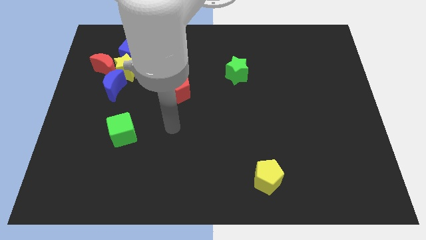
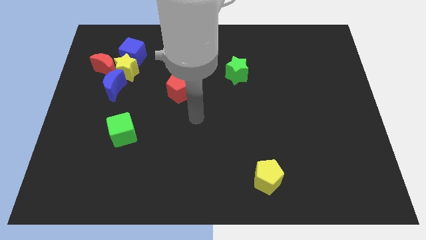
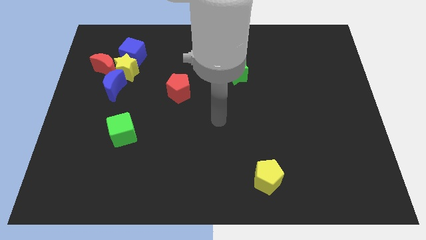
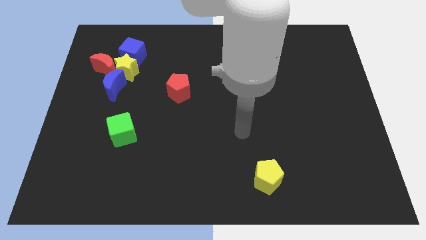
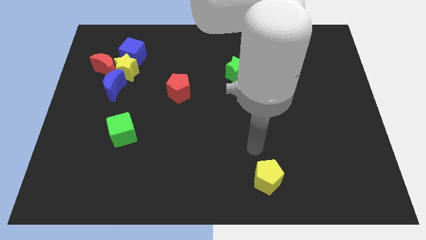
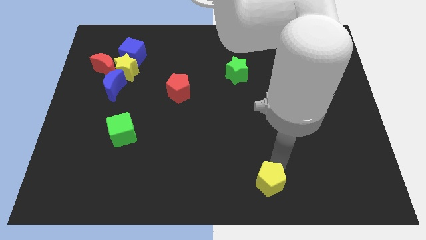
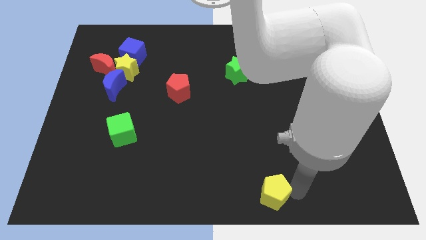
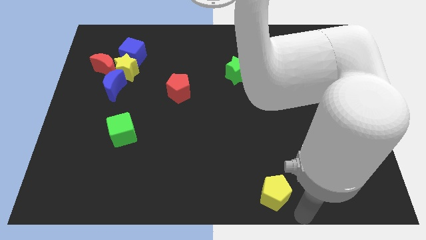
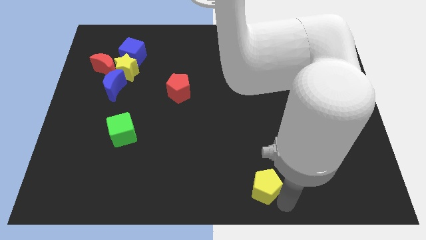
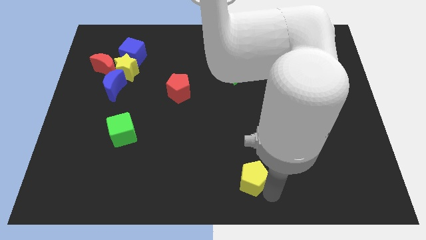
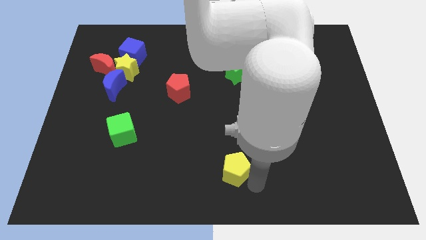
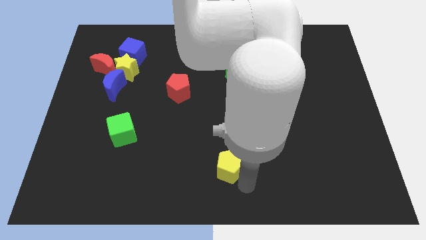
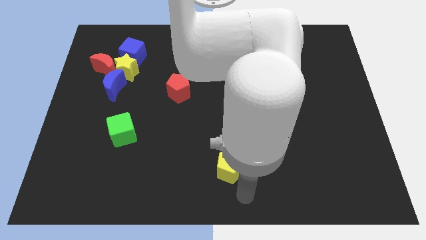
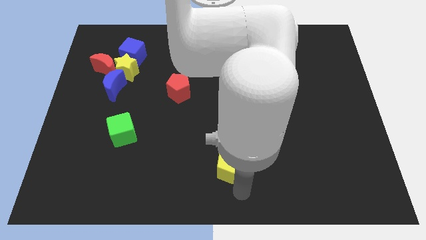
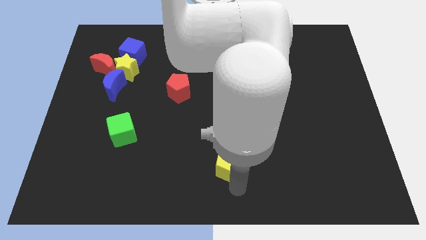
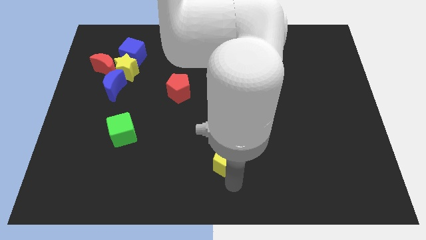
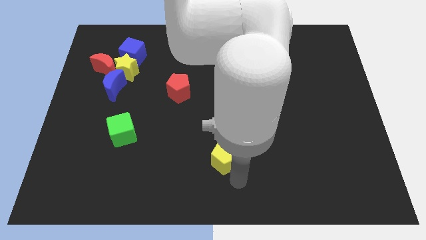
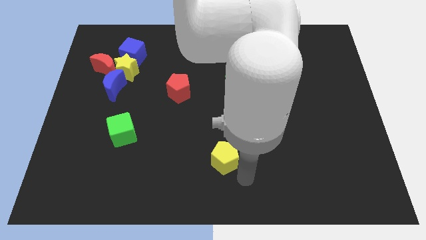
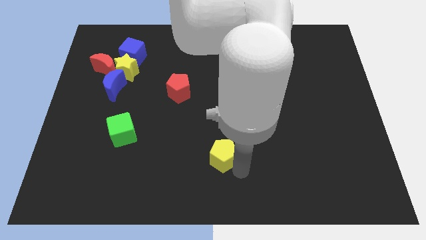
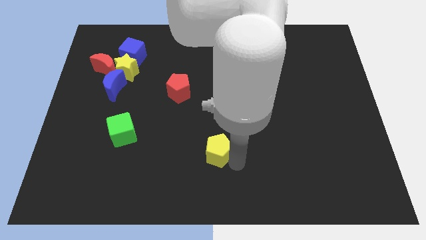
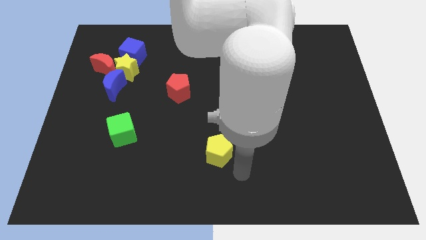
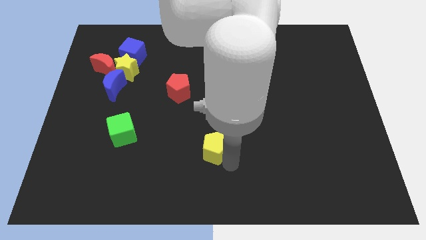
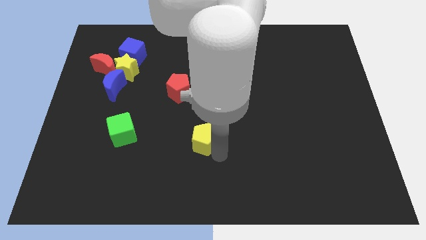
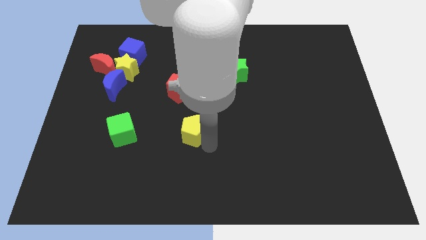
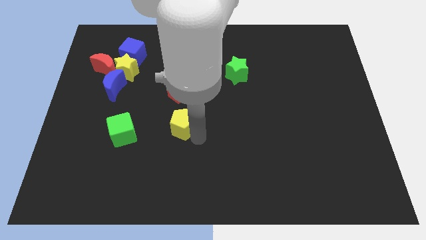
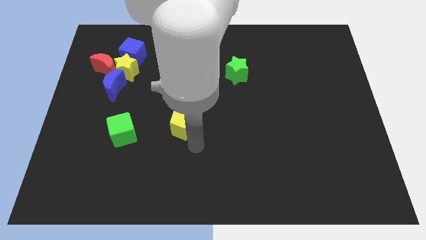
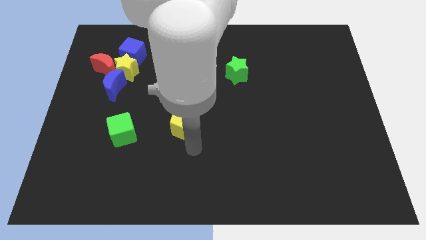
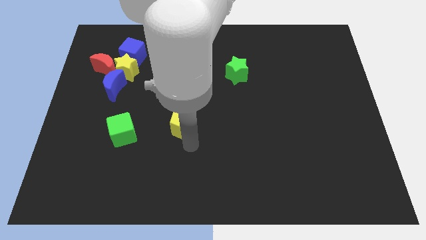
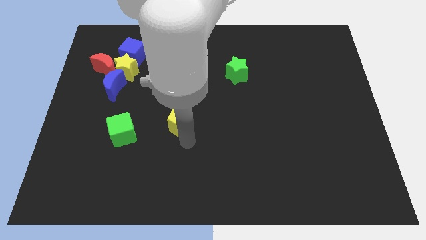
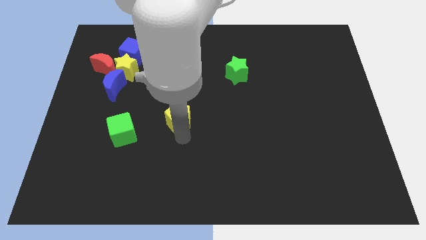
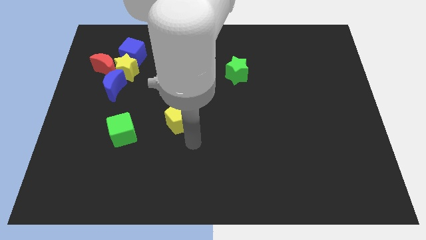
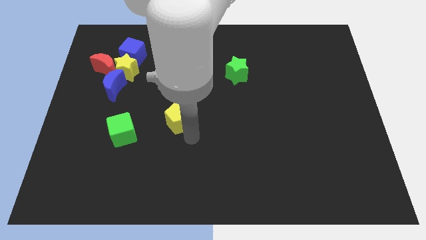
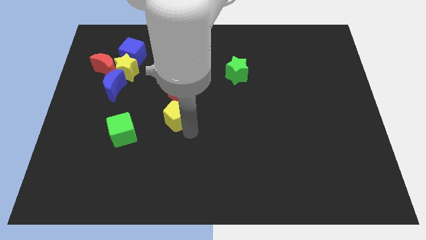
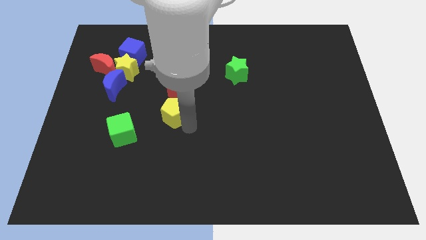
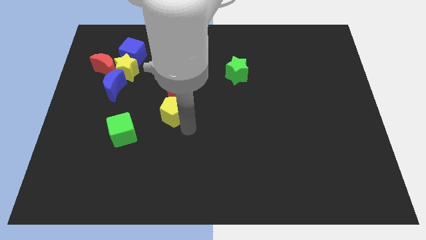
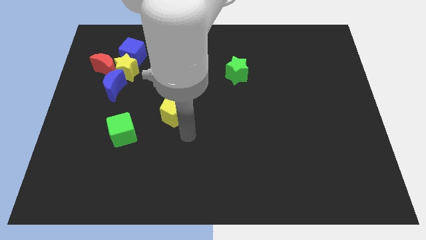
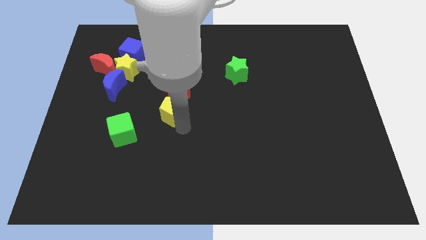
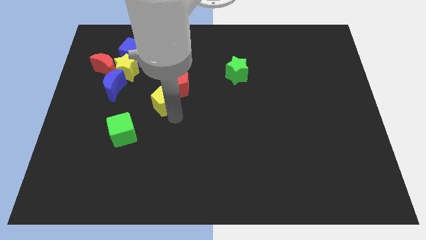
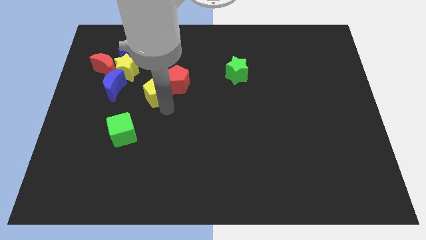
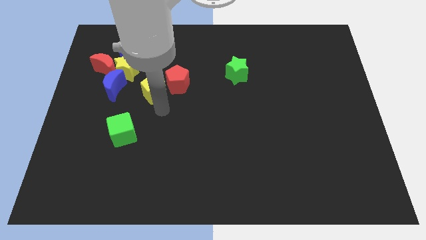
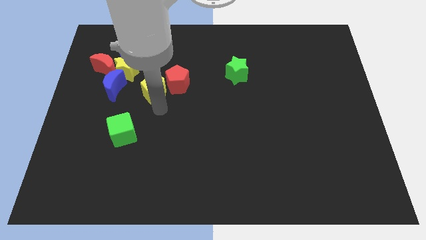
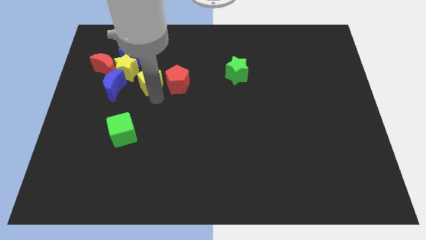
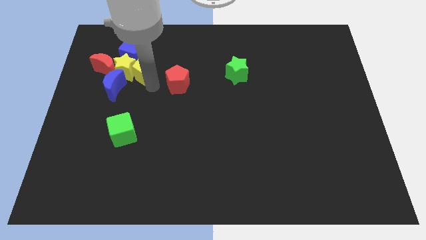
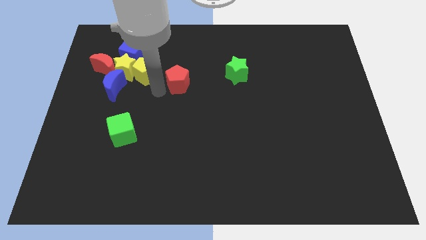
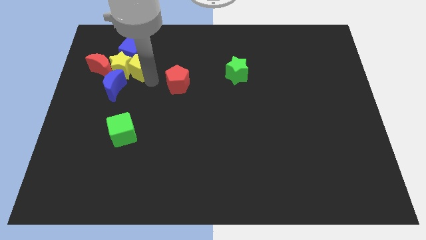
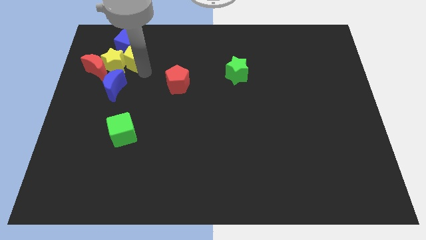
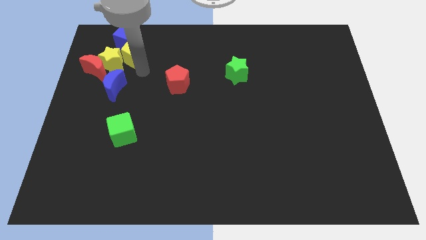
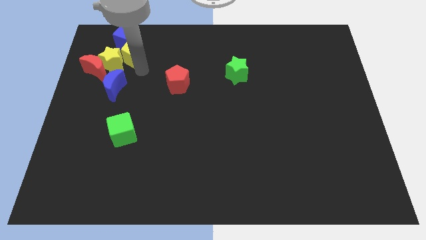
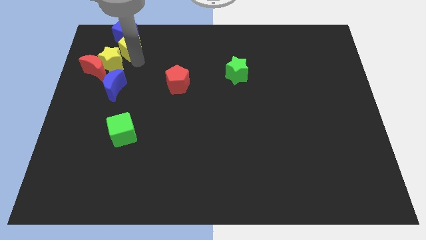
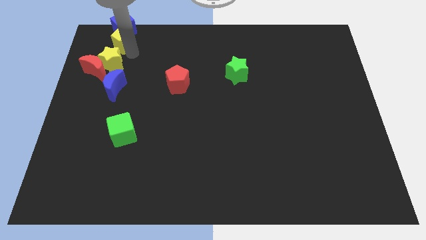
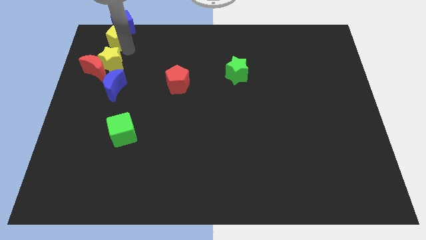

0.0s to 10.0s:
slide the yellow pentagon towards the blue cube

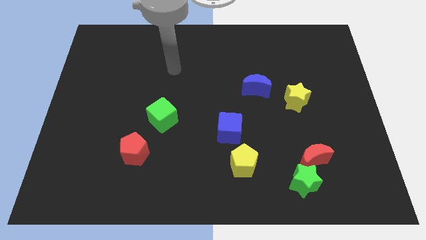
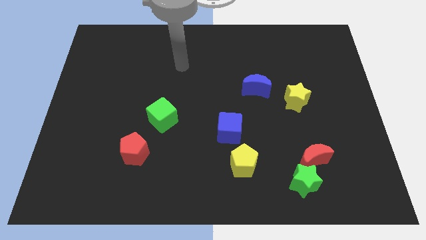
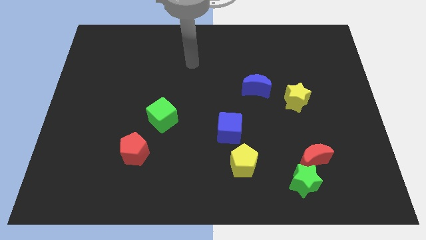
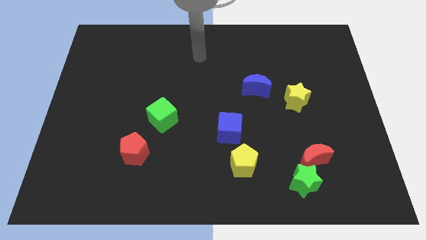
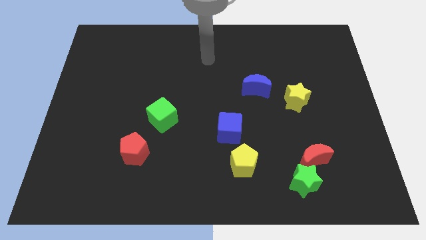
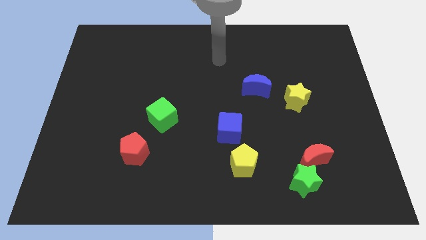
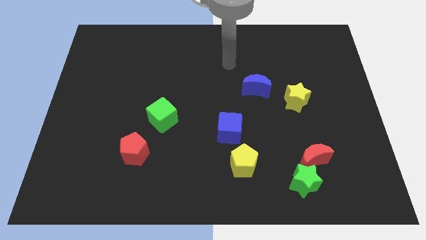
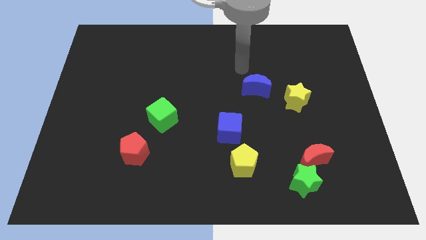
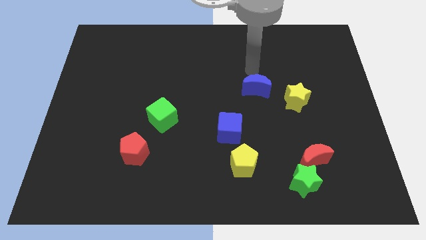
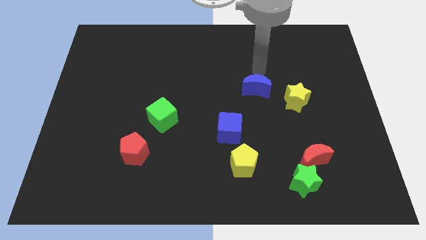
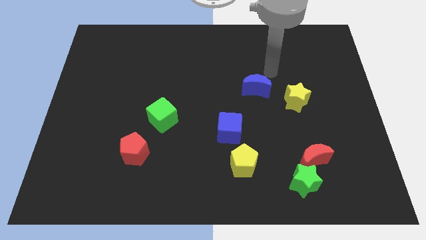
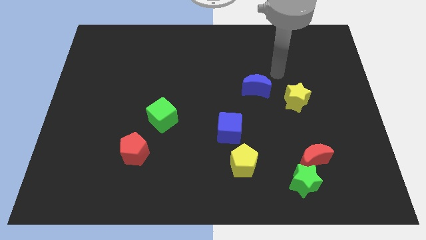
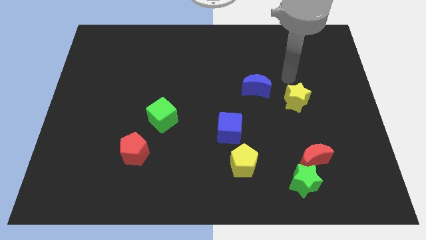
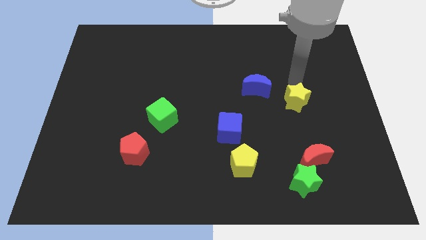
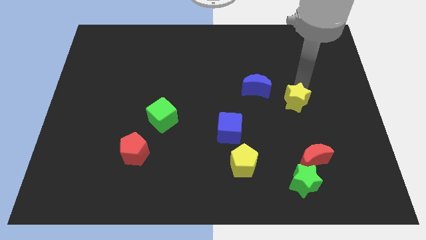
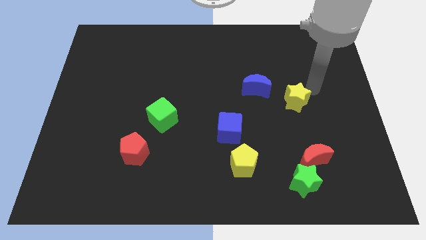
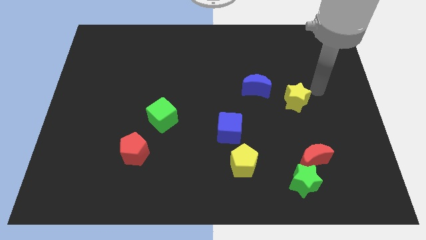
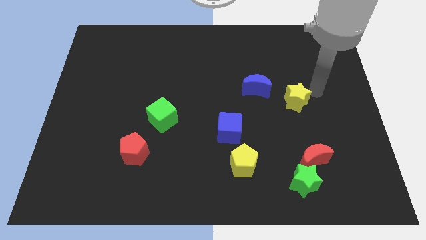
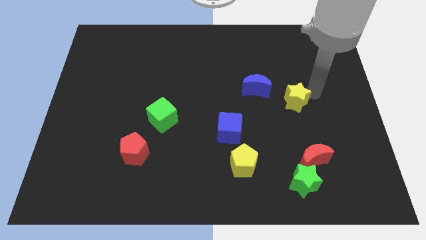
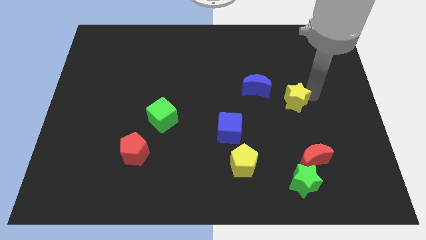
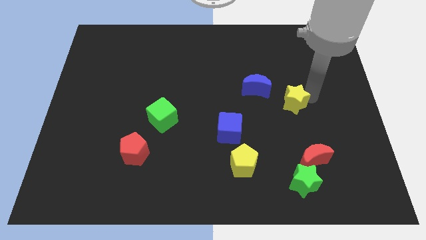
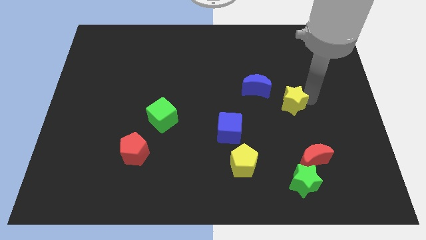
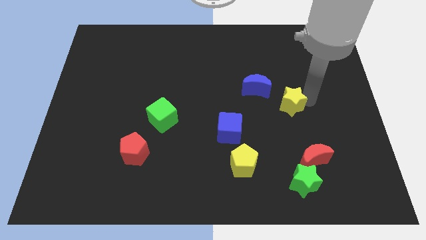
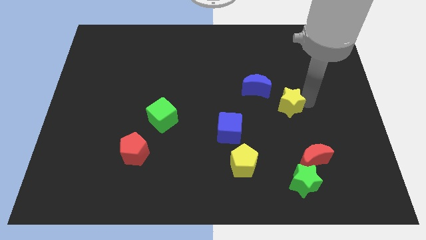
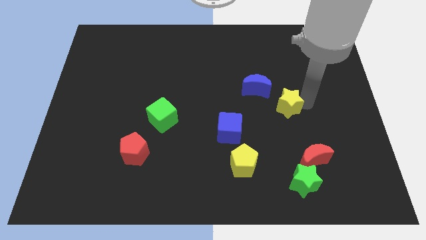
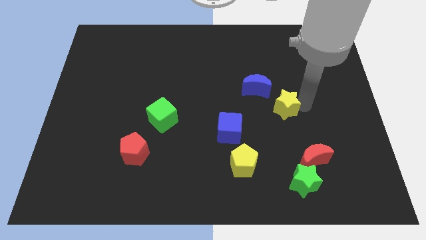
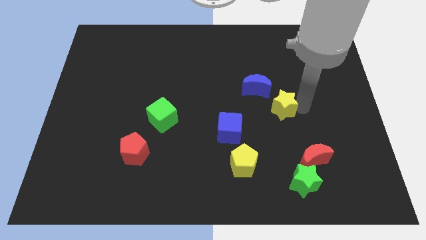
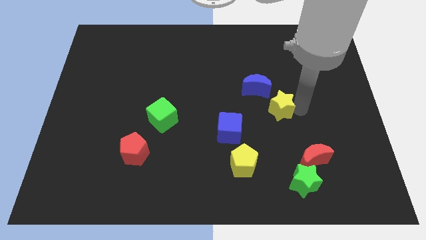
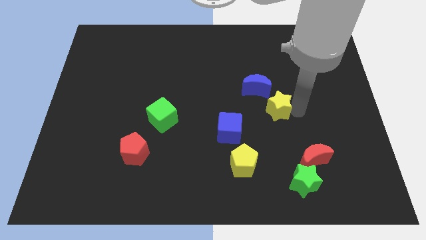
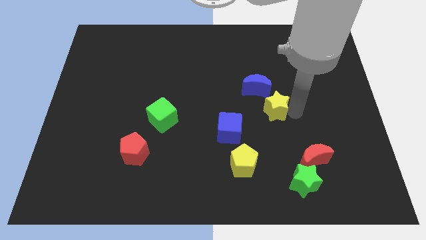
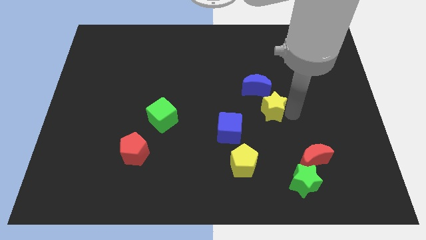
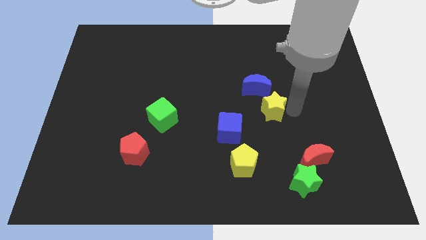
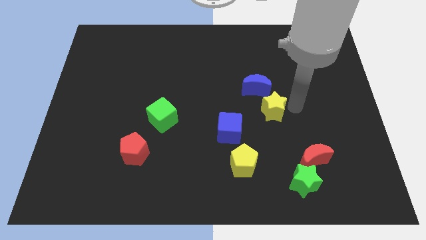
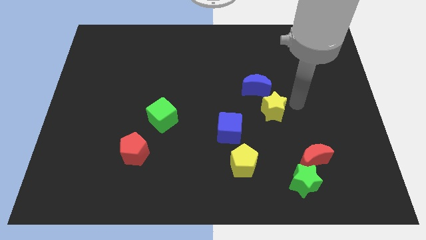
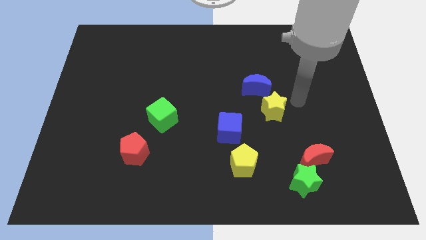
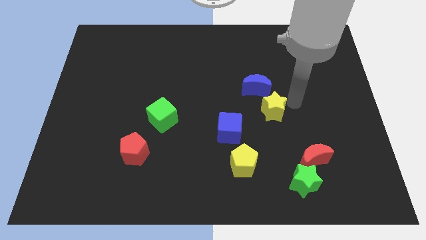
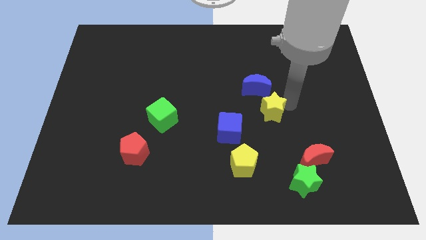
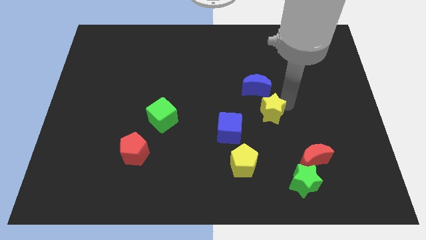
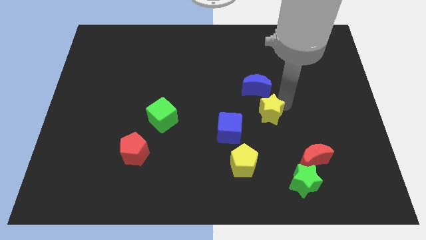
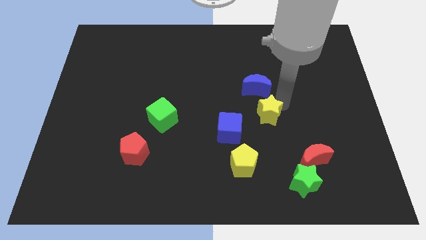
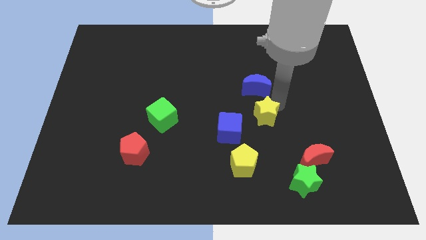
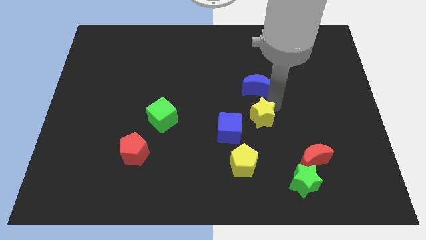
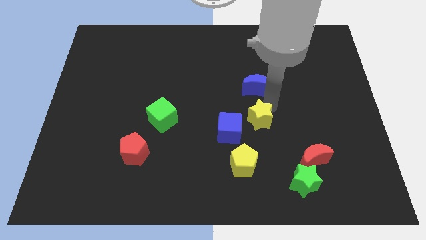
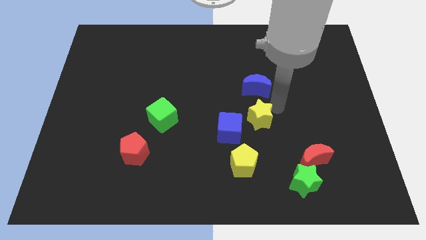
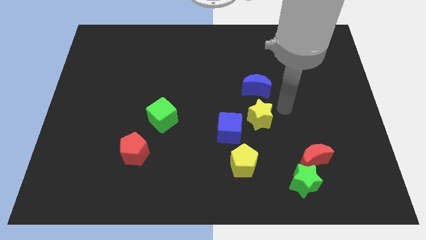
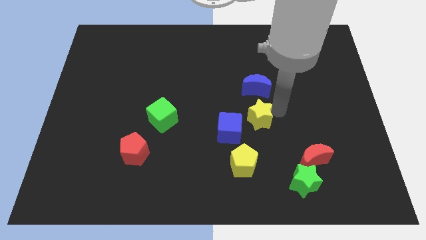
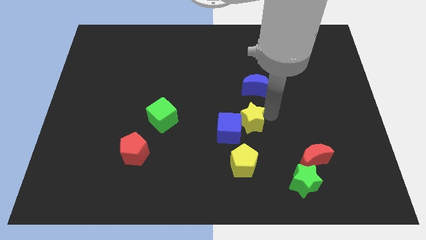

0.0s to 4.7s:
put the yellow star to the blue cube
